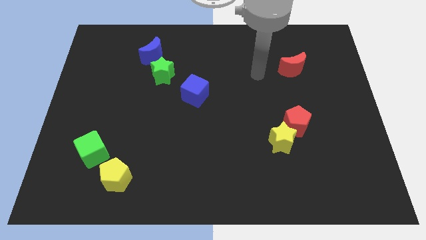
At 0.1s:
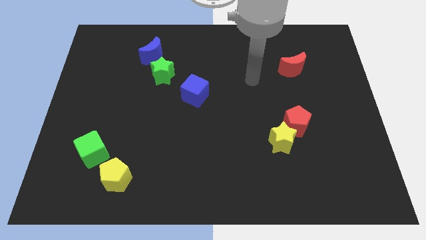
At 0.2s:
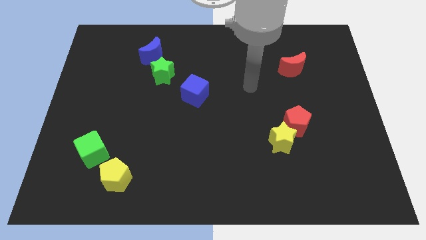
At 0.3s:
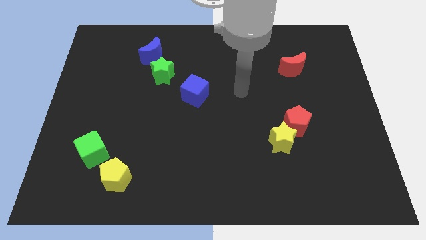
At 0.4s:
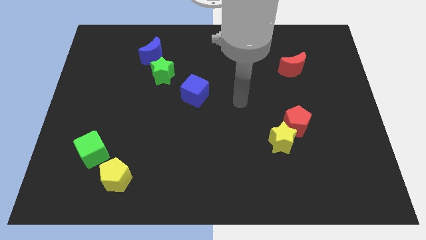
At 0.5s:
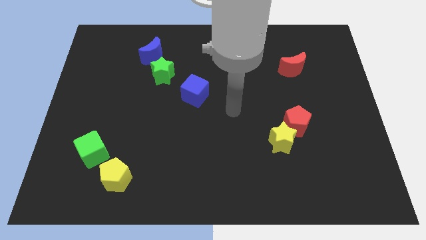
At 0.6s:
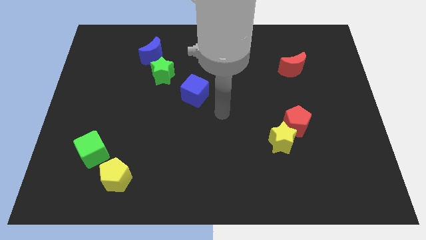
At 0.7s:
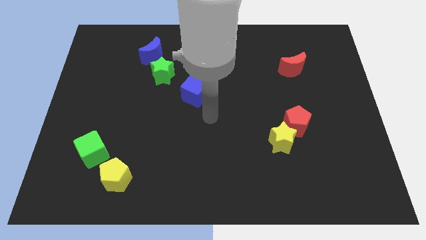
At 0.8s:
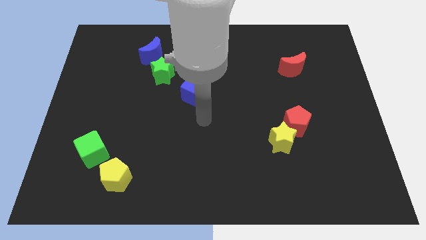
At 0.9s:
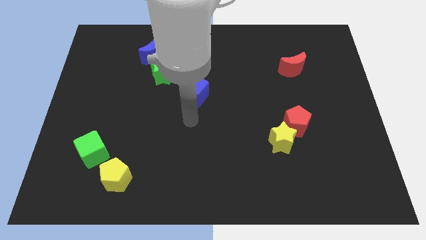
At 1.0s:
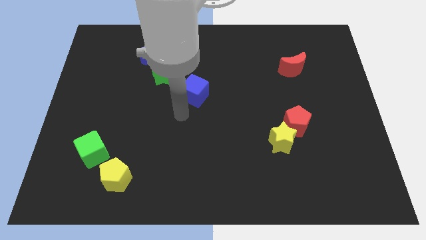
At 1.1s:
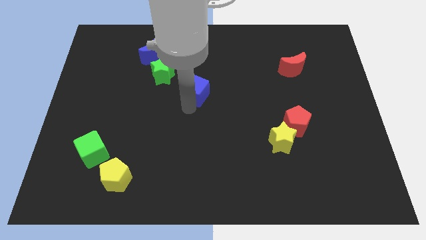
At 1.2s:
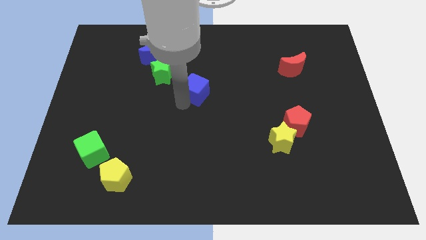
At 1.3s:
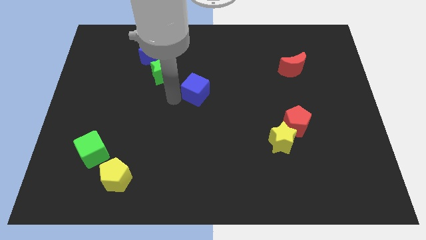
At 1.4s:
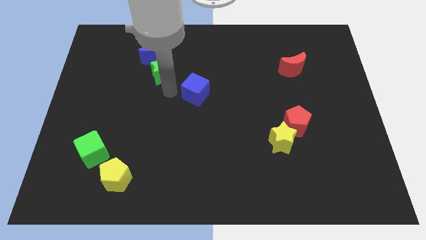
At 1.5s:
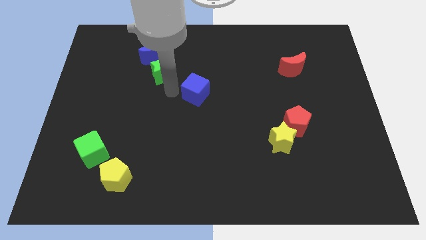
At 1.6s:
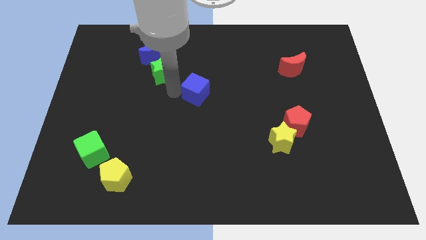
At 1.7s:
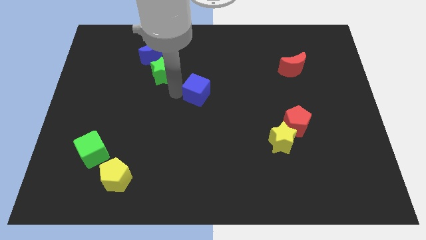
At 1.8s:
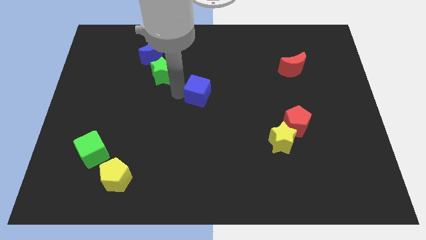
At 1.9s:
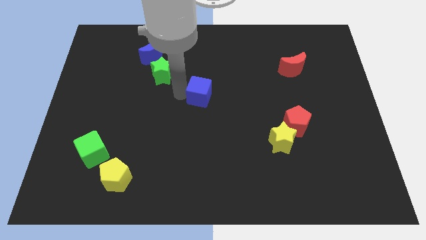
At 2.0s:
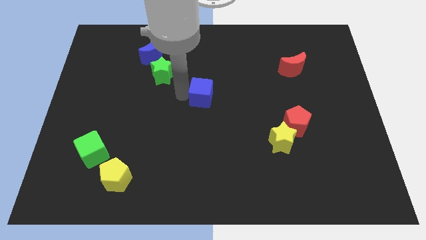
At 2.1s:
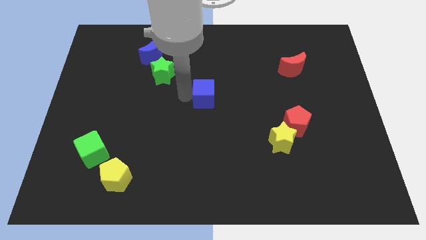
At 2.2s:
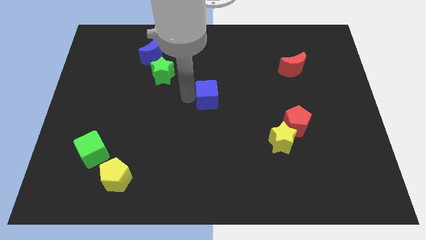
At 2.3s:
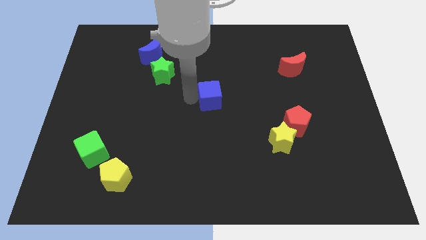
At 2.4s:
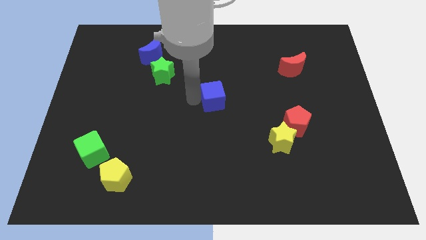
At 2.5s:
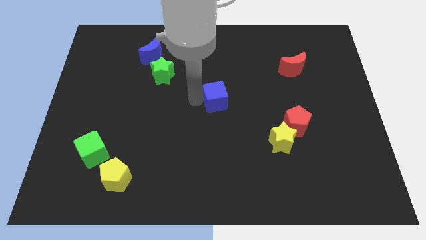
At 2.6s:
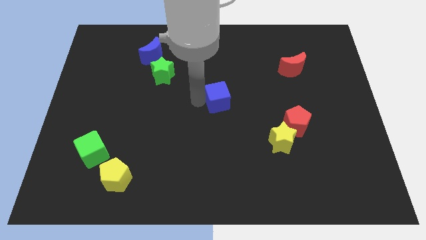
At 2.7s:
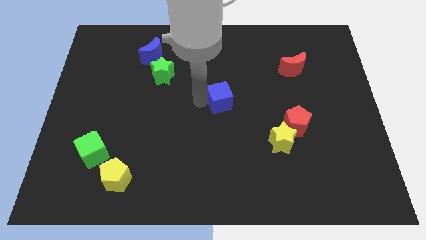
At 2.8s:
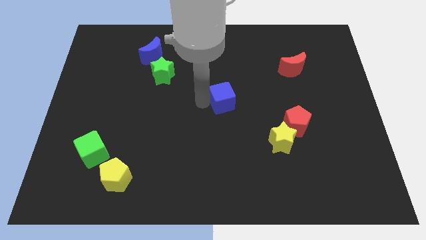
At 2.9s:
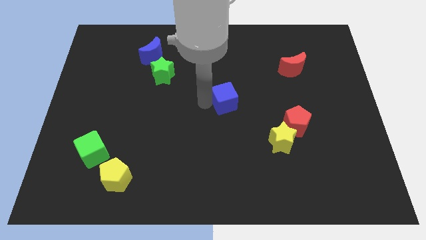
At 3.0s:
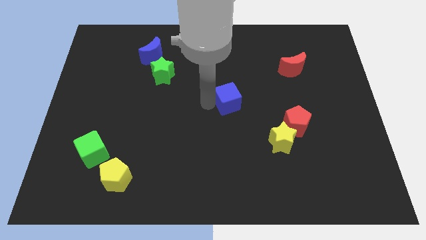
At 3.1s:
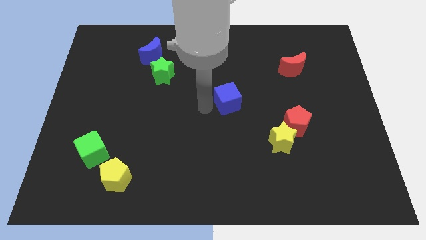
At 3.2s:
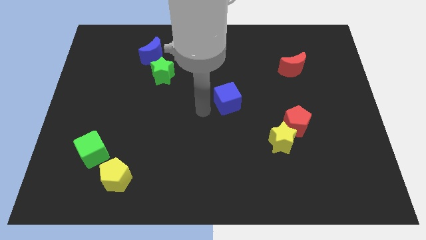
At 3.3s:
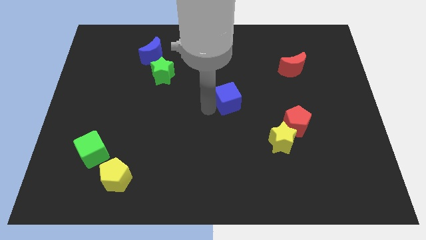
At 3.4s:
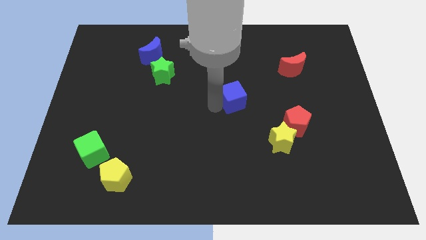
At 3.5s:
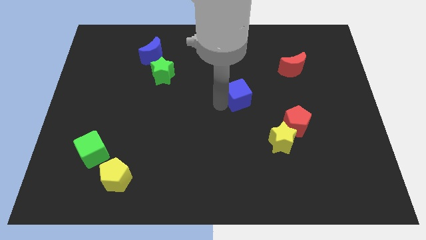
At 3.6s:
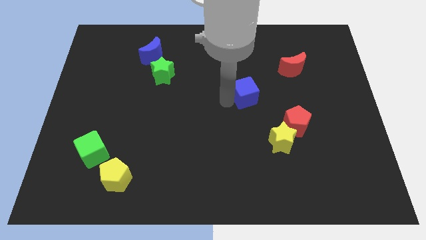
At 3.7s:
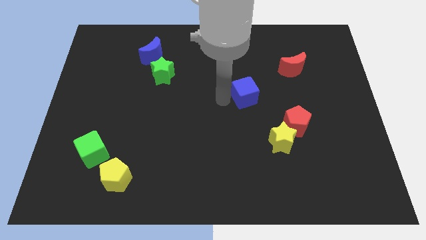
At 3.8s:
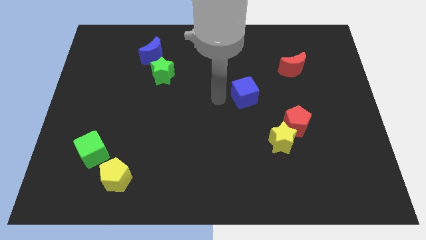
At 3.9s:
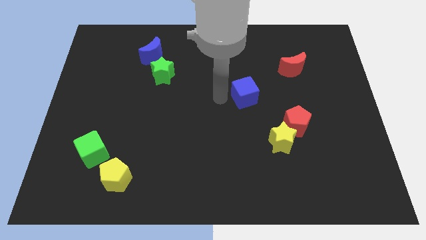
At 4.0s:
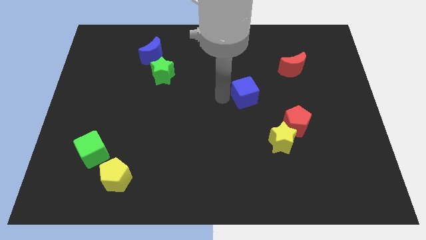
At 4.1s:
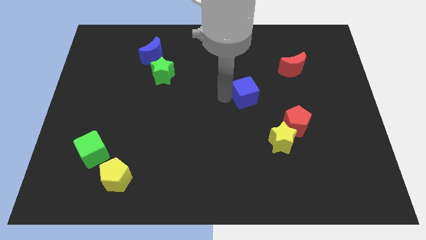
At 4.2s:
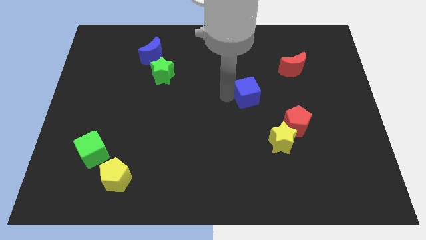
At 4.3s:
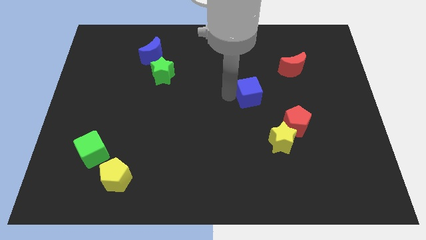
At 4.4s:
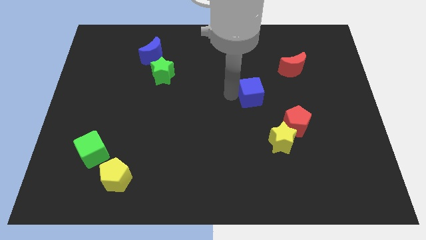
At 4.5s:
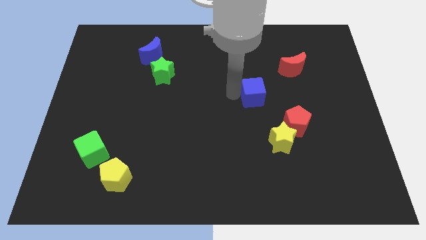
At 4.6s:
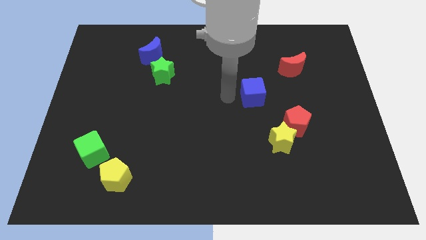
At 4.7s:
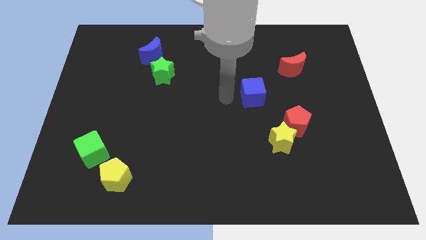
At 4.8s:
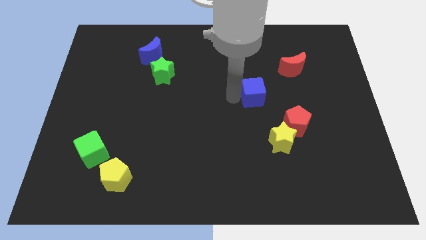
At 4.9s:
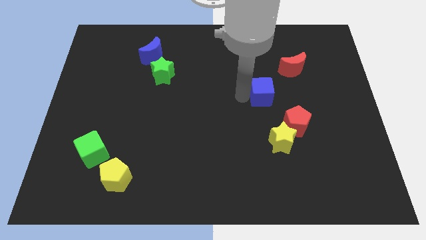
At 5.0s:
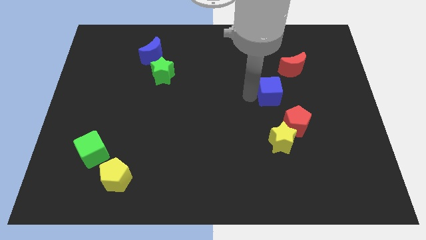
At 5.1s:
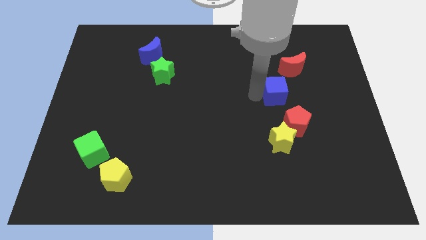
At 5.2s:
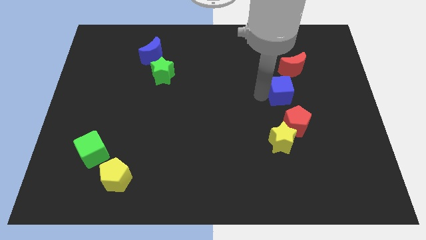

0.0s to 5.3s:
move the blue cube right

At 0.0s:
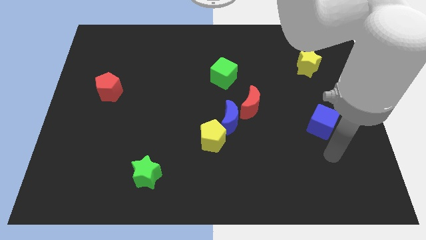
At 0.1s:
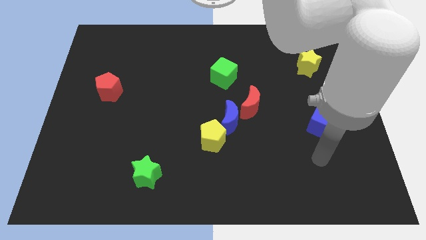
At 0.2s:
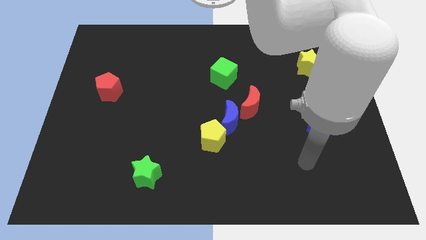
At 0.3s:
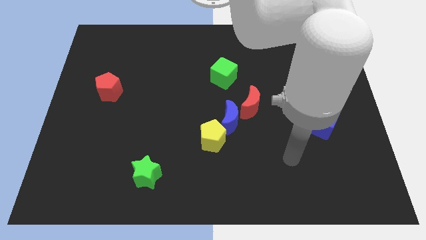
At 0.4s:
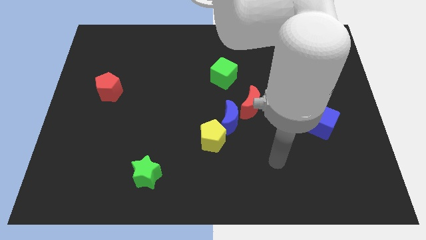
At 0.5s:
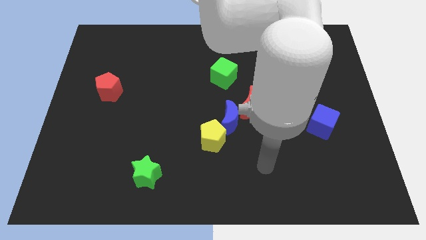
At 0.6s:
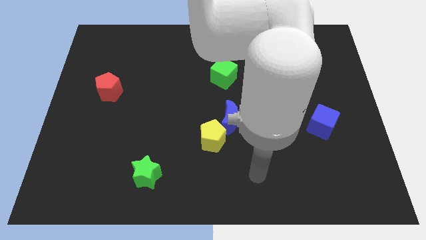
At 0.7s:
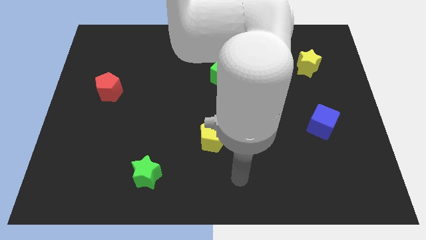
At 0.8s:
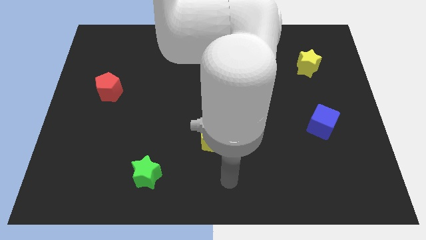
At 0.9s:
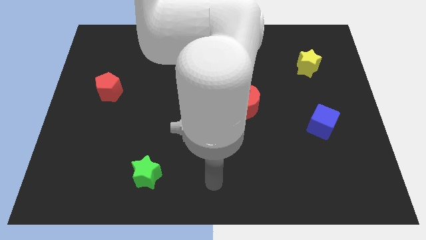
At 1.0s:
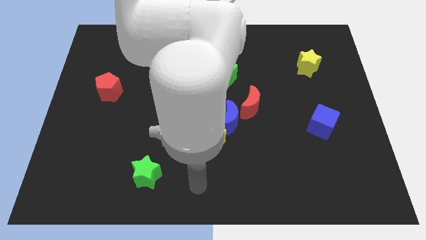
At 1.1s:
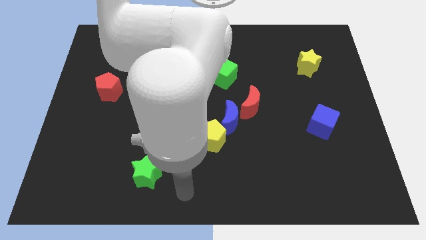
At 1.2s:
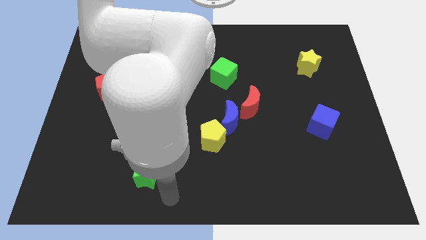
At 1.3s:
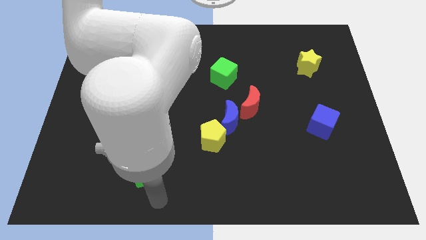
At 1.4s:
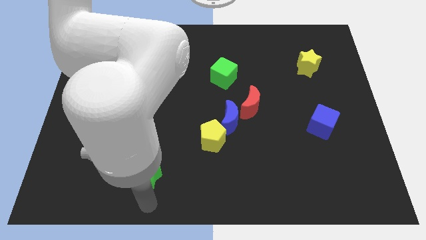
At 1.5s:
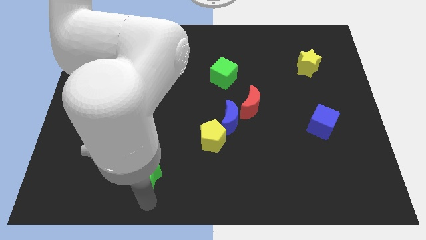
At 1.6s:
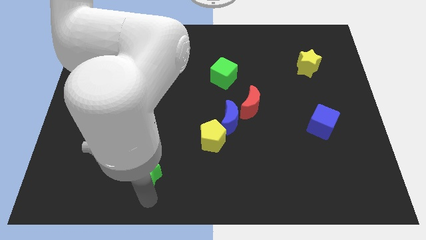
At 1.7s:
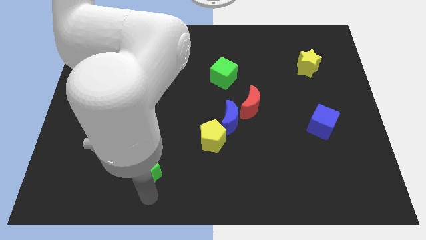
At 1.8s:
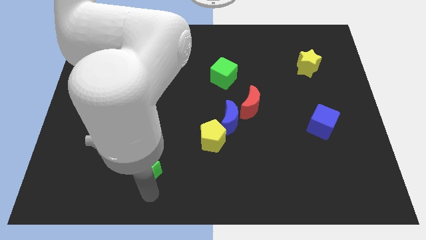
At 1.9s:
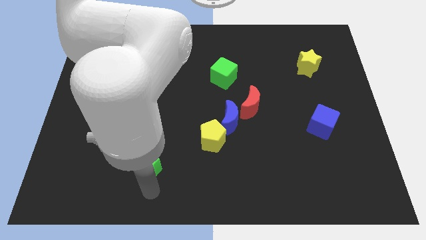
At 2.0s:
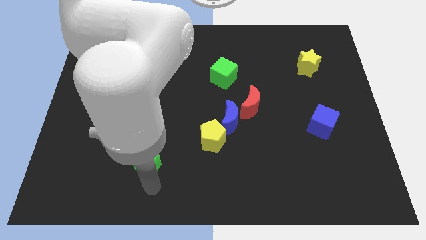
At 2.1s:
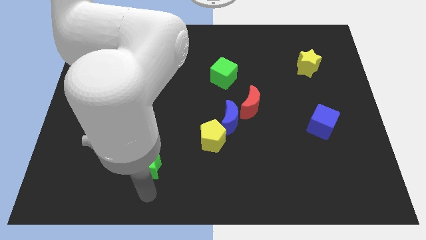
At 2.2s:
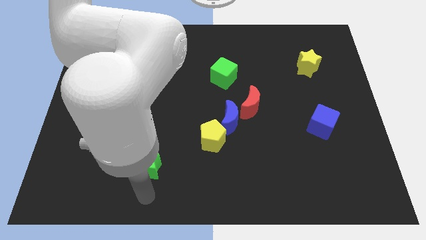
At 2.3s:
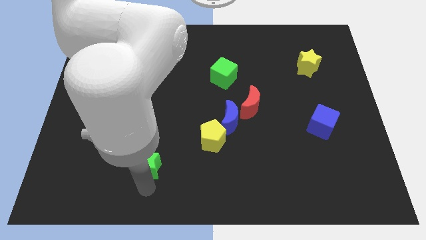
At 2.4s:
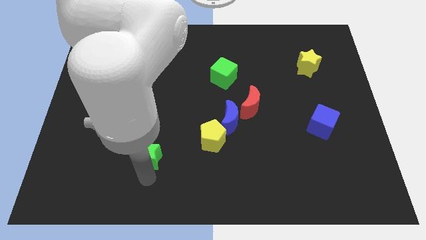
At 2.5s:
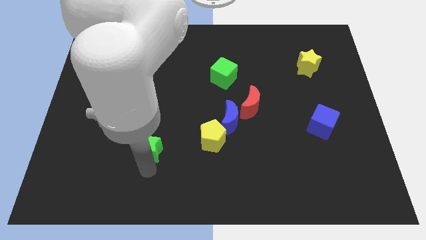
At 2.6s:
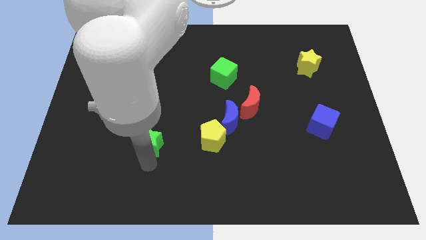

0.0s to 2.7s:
slide the green star upwards a little bit
